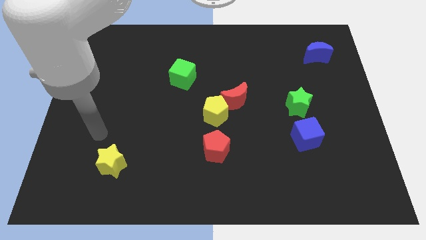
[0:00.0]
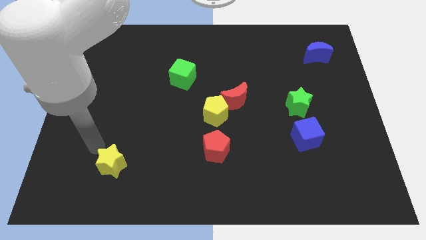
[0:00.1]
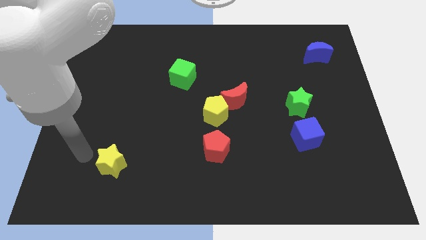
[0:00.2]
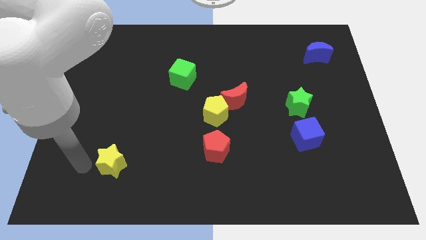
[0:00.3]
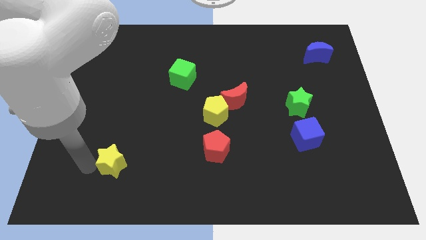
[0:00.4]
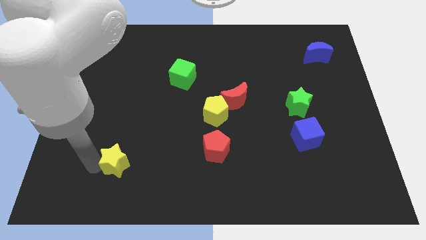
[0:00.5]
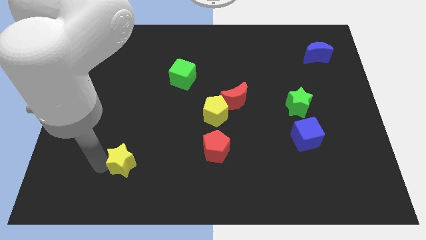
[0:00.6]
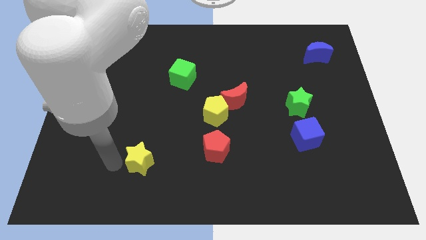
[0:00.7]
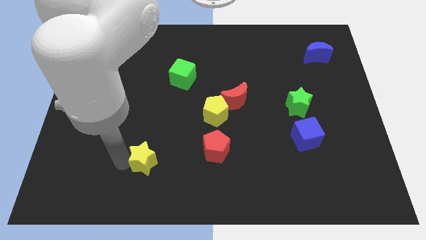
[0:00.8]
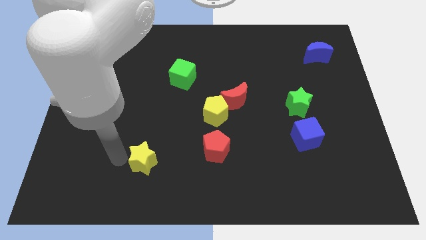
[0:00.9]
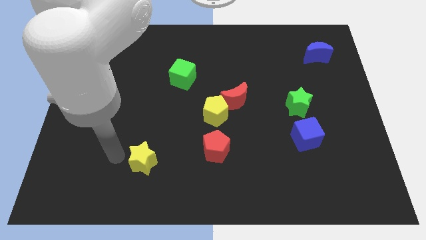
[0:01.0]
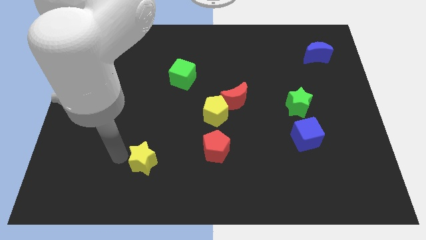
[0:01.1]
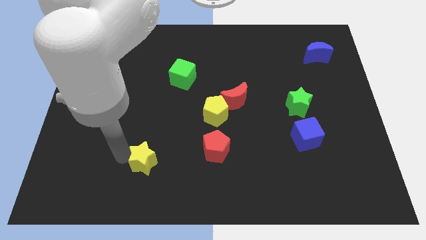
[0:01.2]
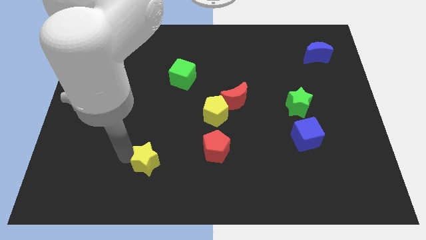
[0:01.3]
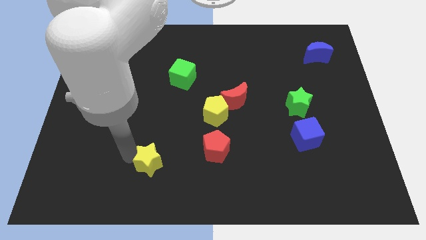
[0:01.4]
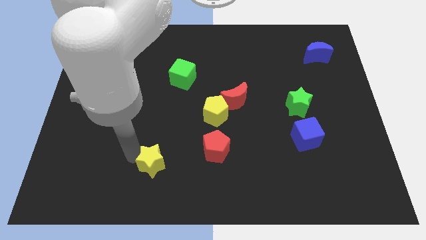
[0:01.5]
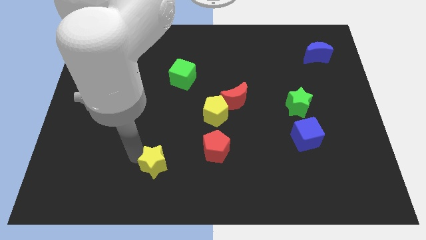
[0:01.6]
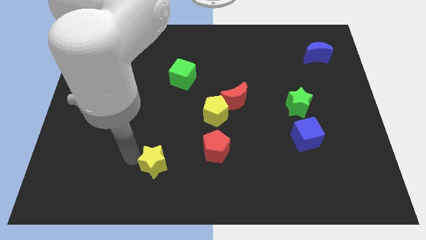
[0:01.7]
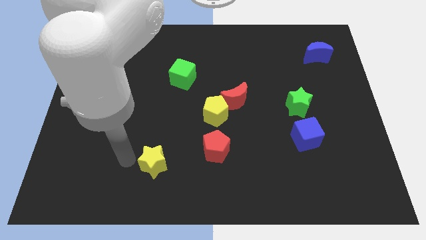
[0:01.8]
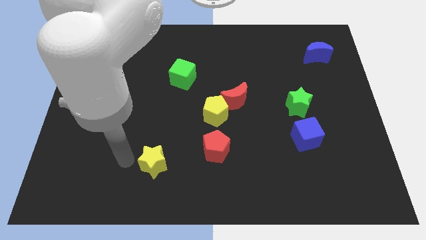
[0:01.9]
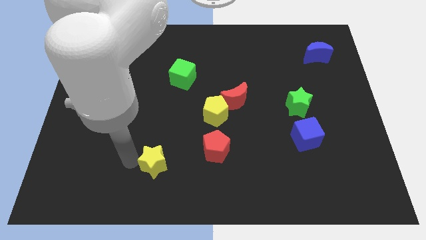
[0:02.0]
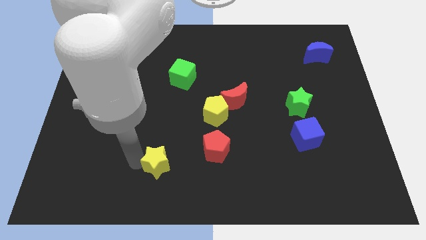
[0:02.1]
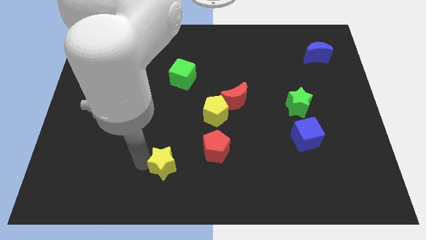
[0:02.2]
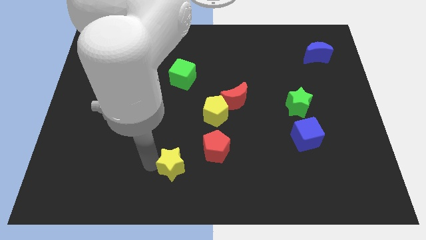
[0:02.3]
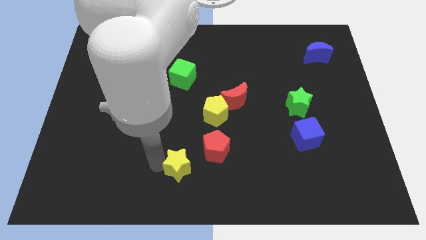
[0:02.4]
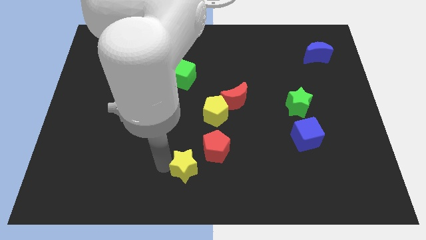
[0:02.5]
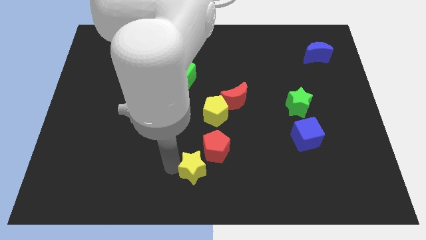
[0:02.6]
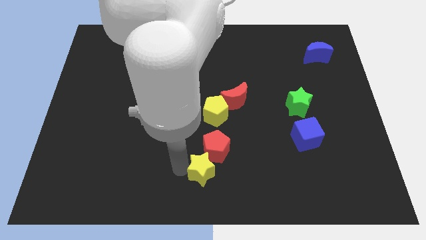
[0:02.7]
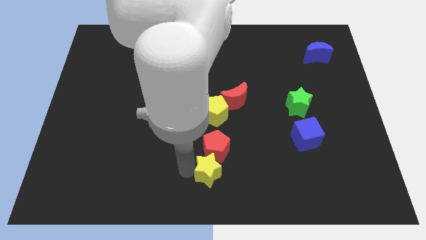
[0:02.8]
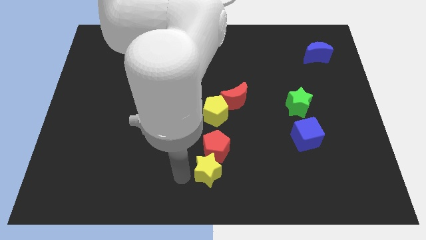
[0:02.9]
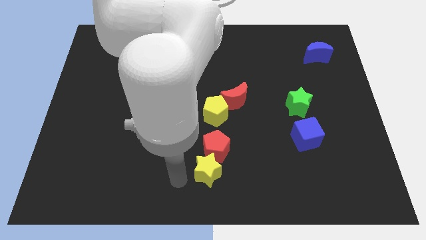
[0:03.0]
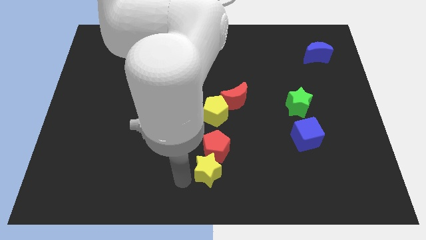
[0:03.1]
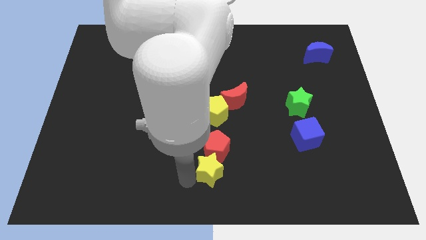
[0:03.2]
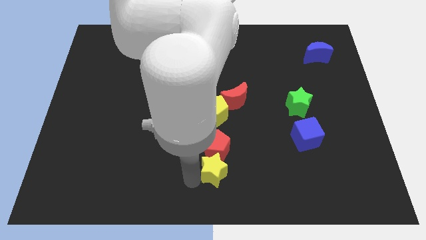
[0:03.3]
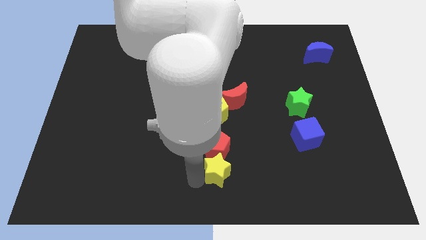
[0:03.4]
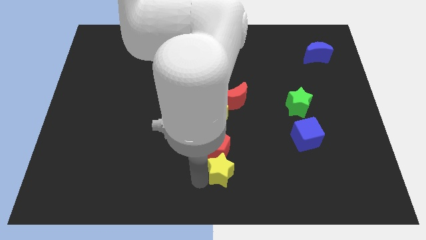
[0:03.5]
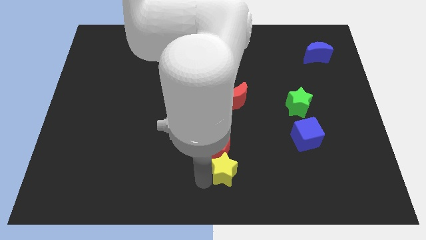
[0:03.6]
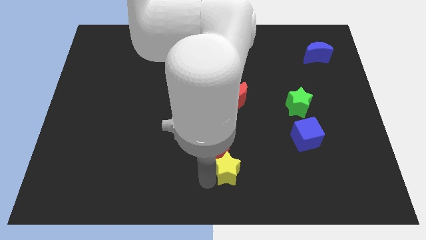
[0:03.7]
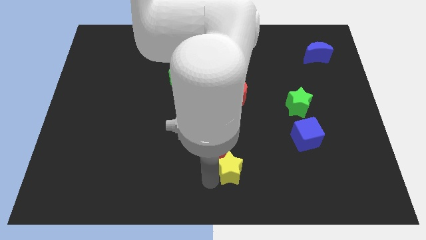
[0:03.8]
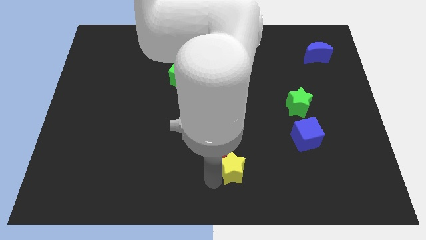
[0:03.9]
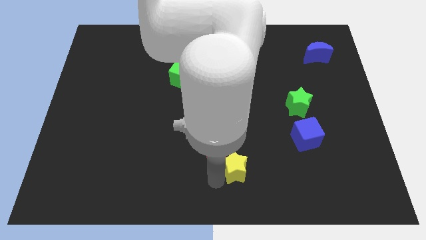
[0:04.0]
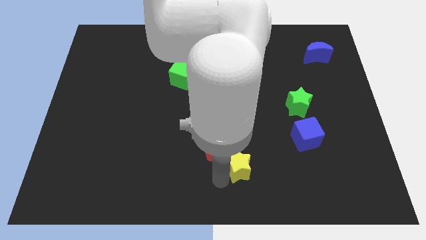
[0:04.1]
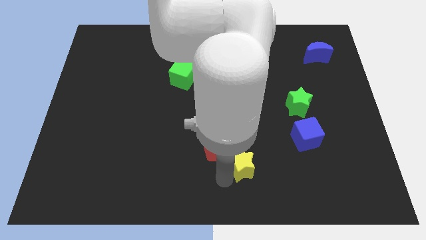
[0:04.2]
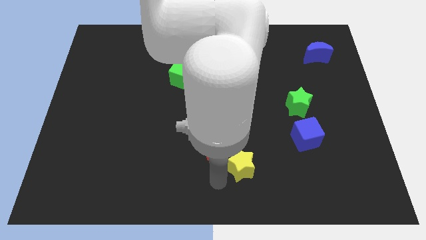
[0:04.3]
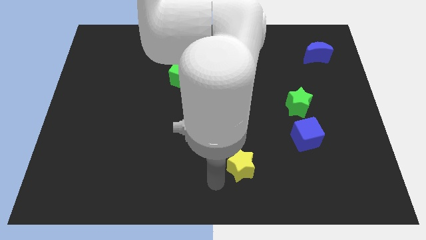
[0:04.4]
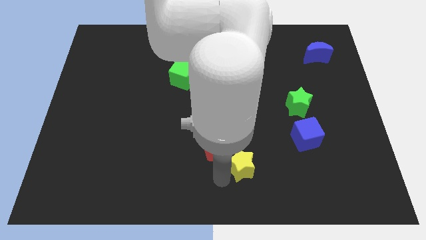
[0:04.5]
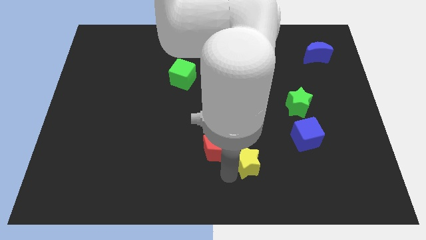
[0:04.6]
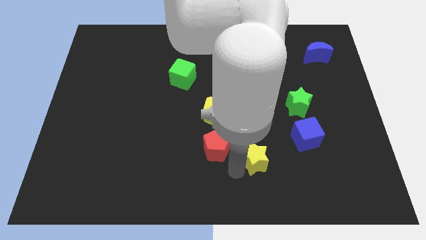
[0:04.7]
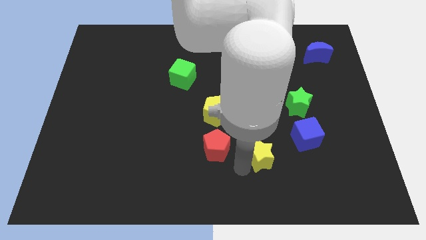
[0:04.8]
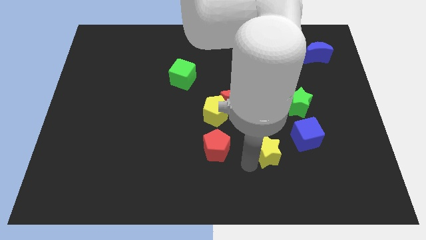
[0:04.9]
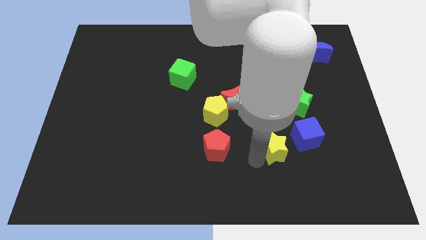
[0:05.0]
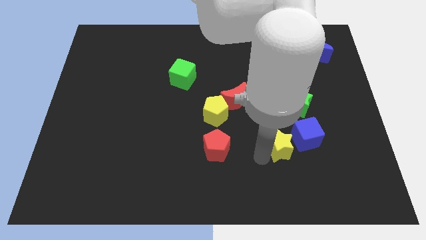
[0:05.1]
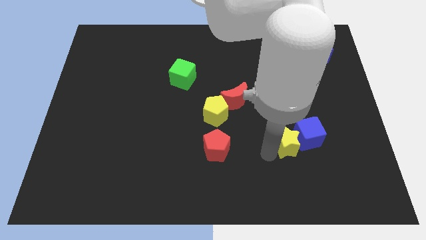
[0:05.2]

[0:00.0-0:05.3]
push the yellow star towards the blue cube

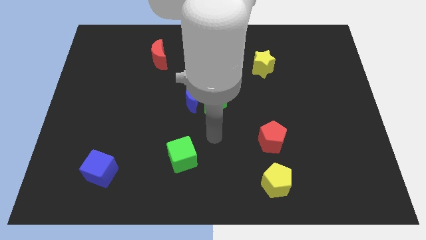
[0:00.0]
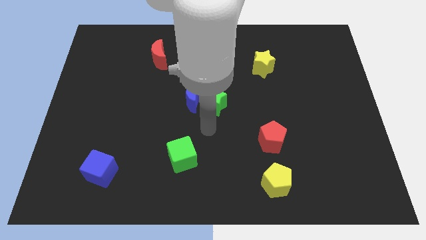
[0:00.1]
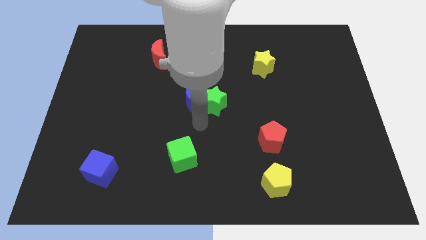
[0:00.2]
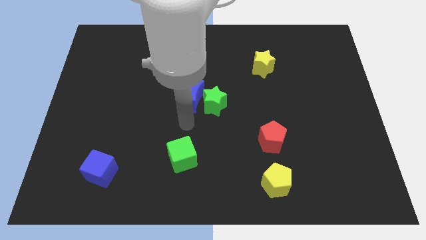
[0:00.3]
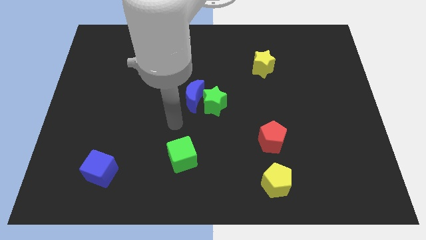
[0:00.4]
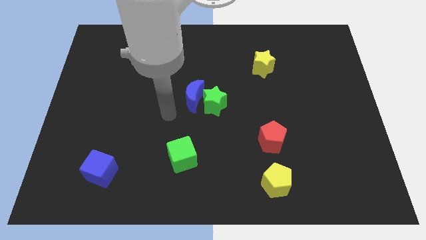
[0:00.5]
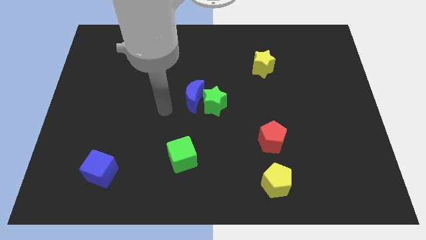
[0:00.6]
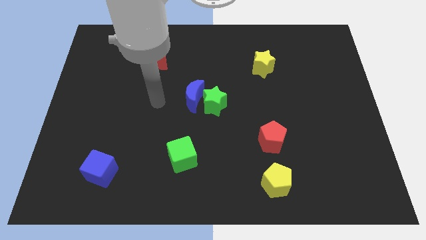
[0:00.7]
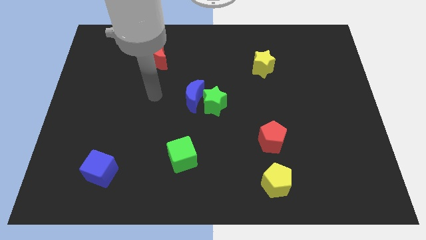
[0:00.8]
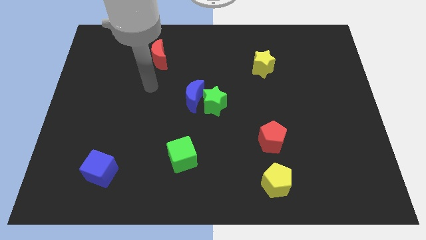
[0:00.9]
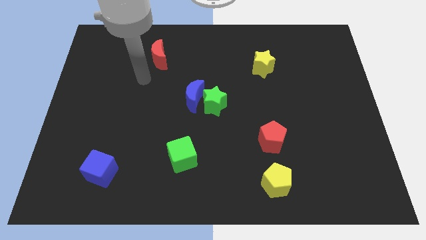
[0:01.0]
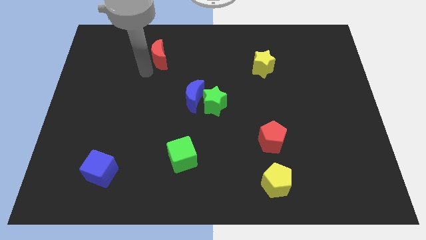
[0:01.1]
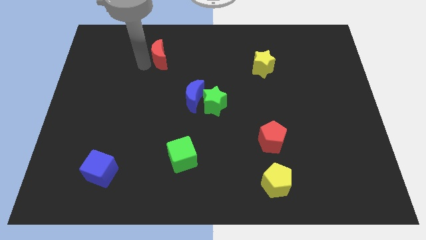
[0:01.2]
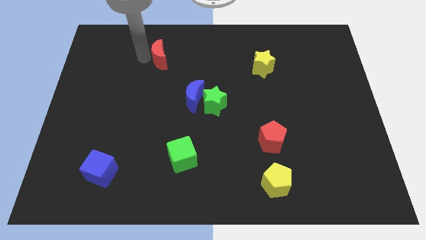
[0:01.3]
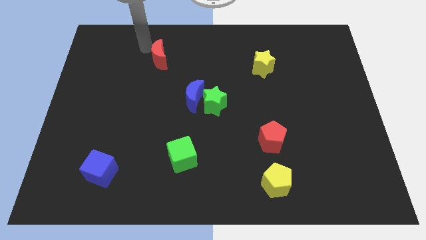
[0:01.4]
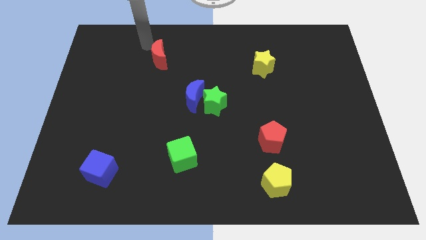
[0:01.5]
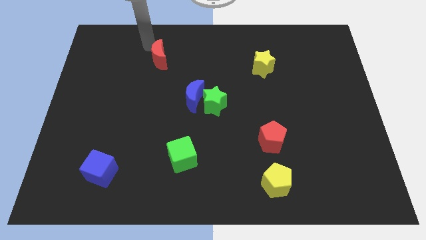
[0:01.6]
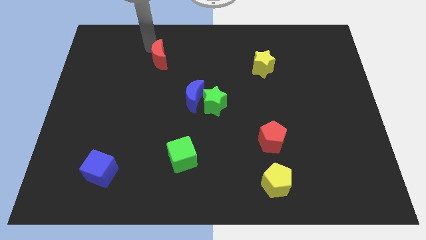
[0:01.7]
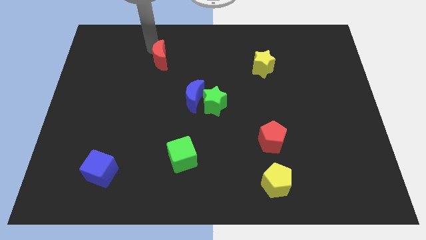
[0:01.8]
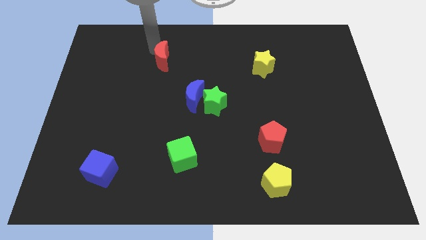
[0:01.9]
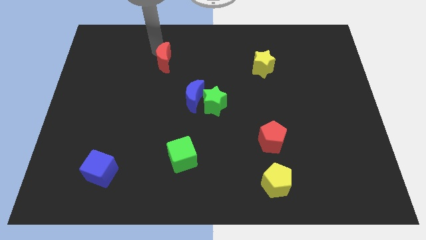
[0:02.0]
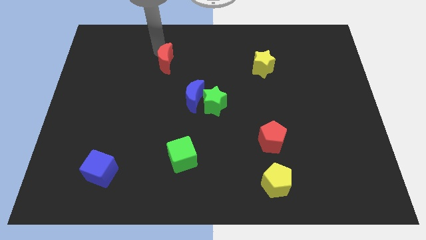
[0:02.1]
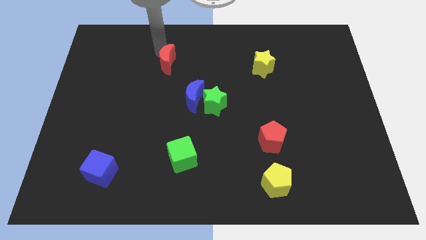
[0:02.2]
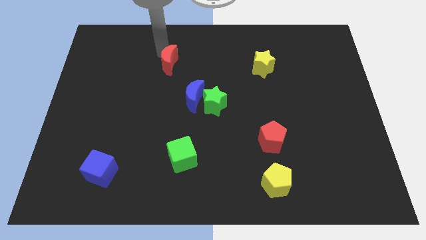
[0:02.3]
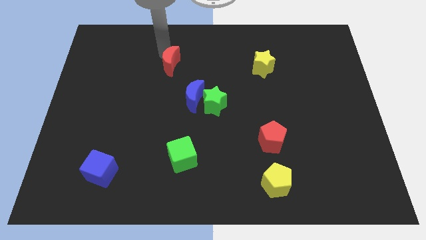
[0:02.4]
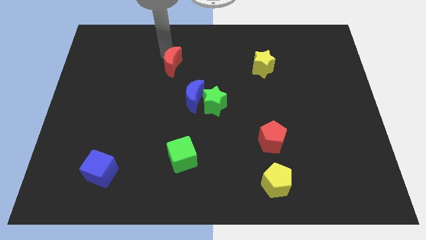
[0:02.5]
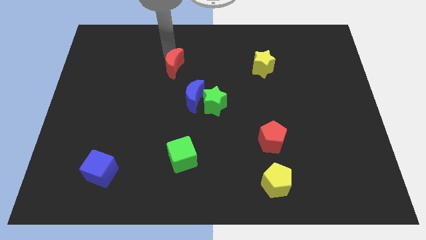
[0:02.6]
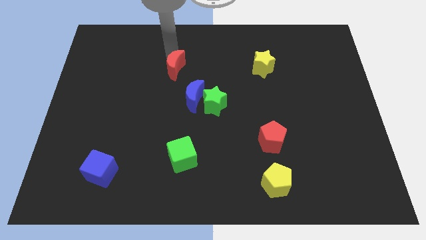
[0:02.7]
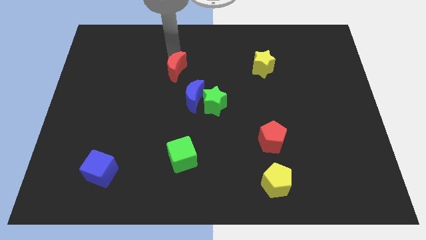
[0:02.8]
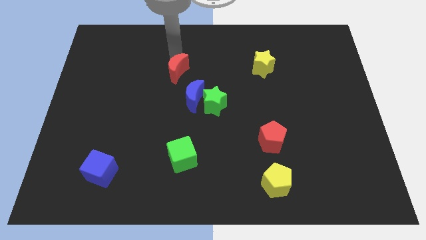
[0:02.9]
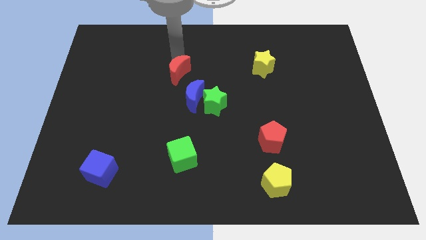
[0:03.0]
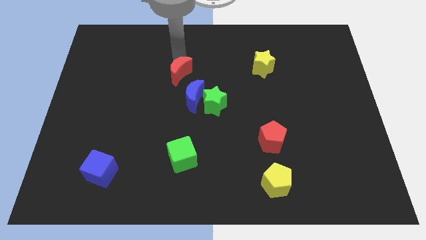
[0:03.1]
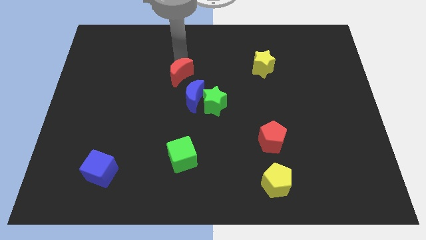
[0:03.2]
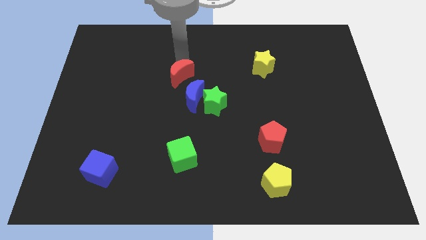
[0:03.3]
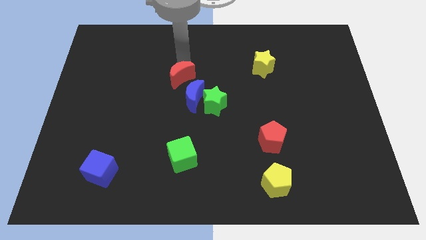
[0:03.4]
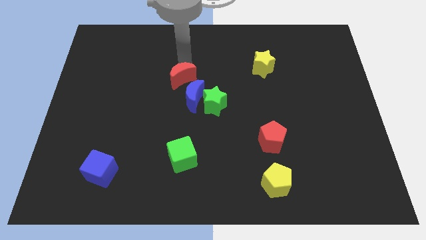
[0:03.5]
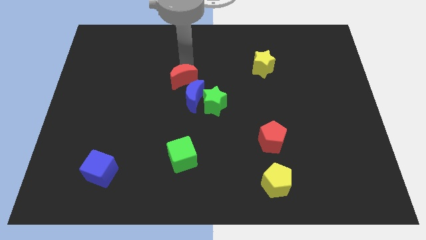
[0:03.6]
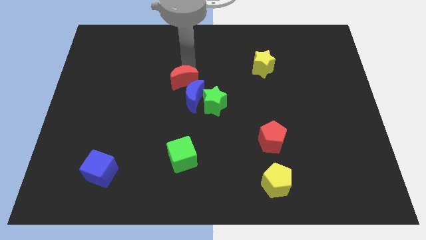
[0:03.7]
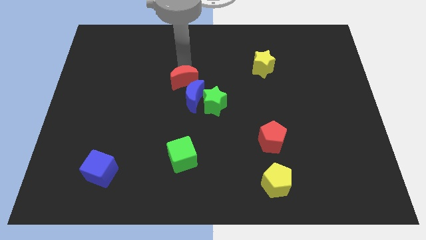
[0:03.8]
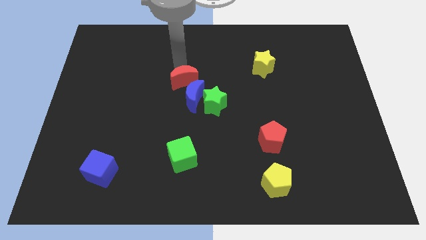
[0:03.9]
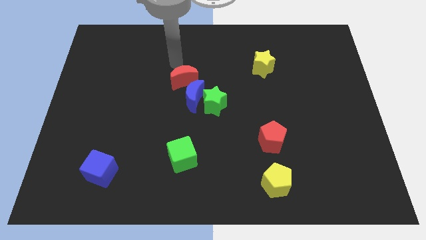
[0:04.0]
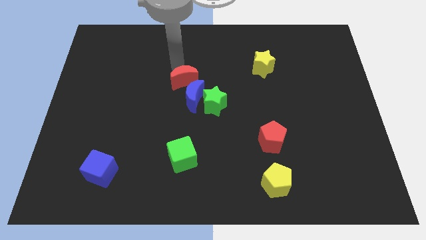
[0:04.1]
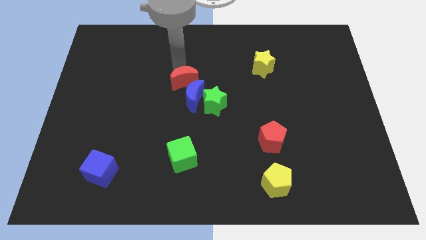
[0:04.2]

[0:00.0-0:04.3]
put the red moon next to the blue moon
